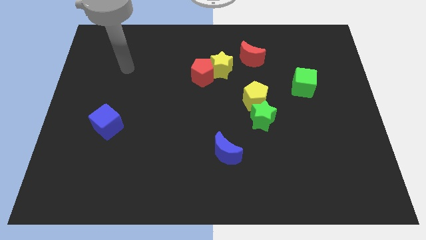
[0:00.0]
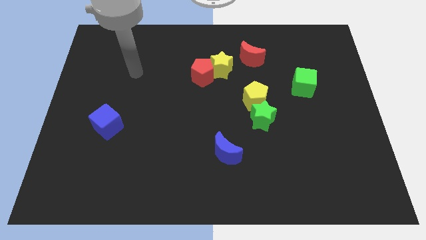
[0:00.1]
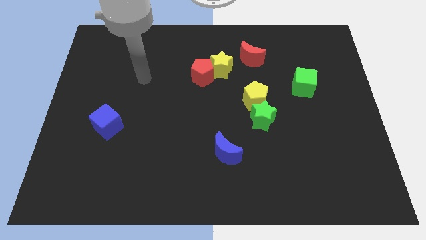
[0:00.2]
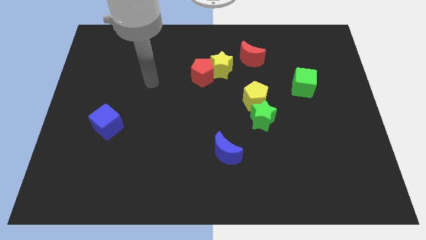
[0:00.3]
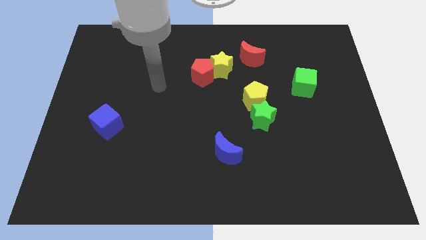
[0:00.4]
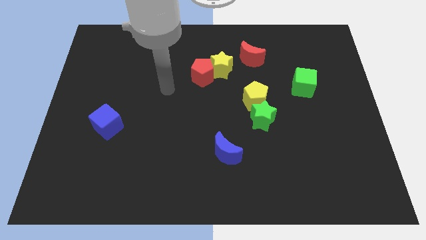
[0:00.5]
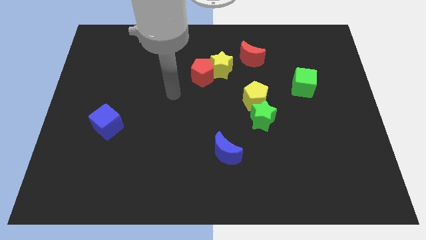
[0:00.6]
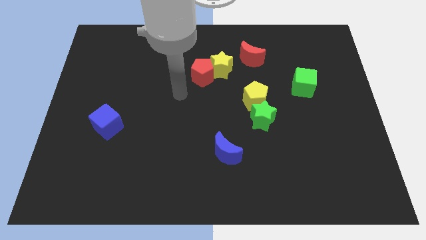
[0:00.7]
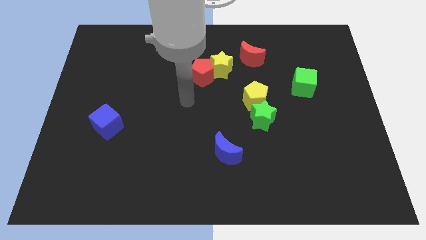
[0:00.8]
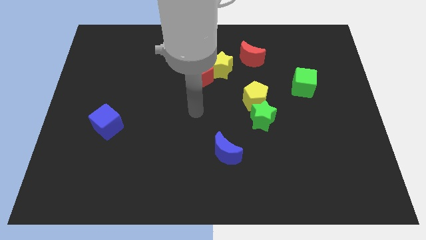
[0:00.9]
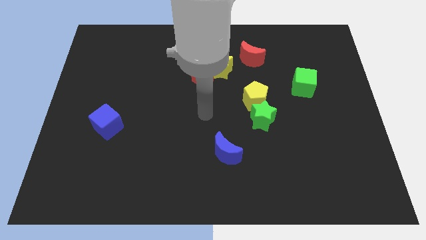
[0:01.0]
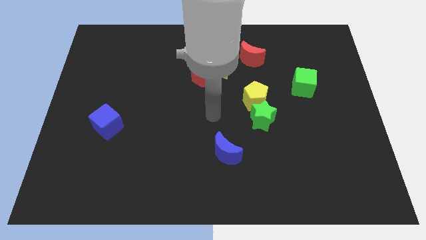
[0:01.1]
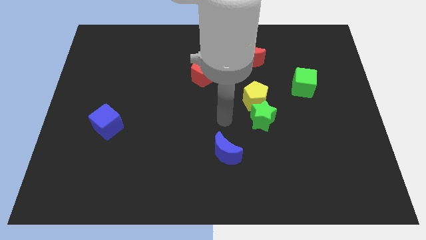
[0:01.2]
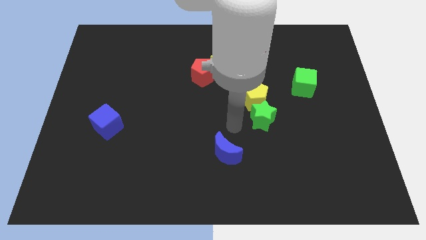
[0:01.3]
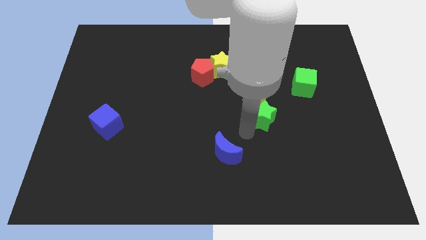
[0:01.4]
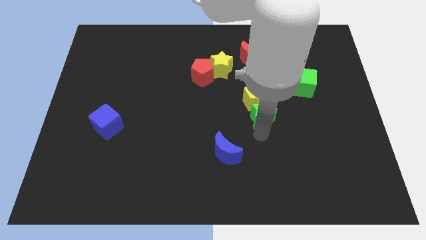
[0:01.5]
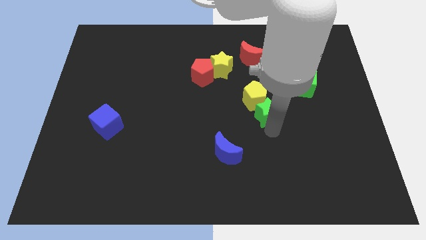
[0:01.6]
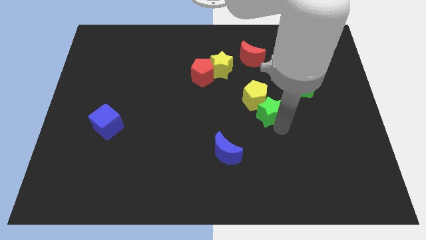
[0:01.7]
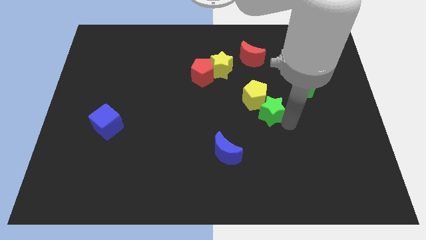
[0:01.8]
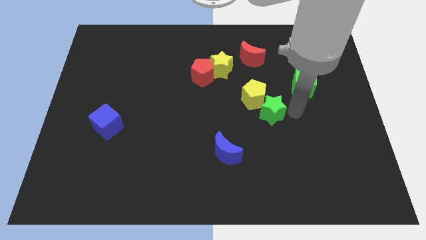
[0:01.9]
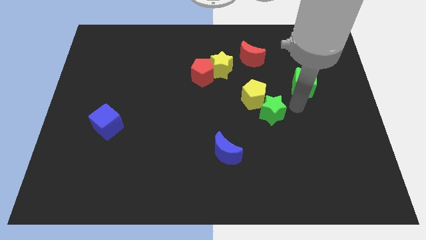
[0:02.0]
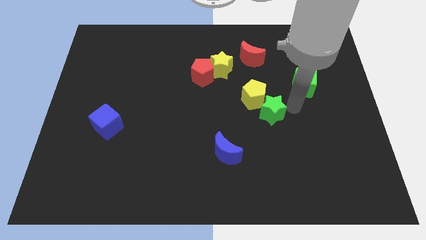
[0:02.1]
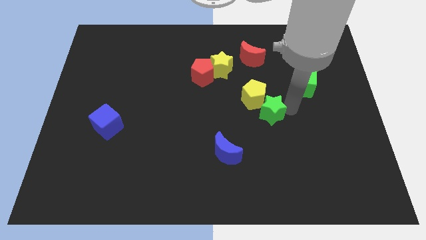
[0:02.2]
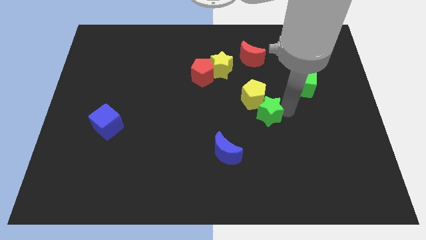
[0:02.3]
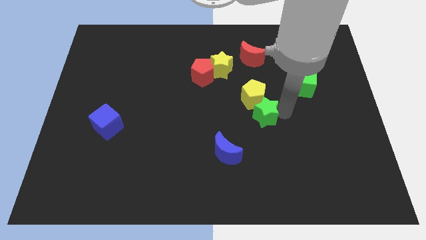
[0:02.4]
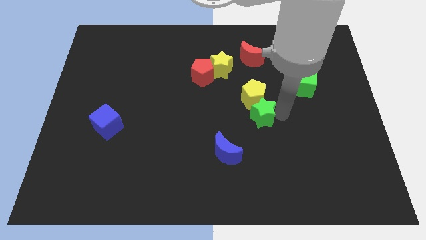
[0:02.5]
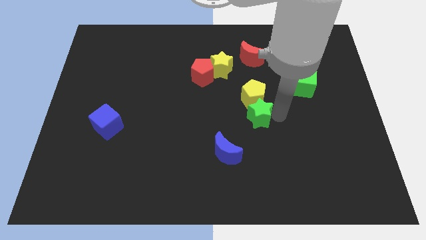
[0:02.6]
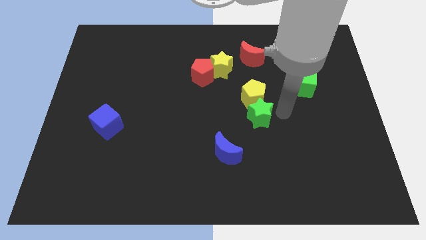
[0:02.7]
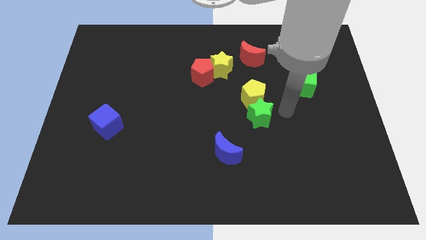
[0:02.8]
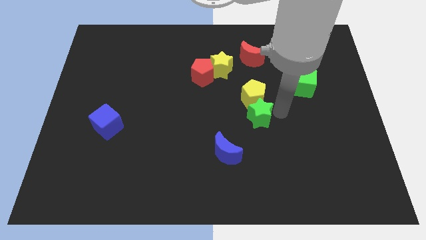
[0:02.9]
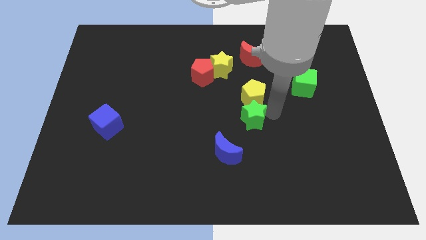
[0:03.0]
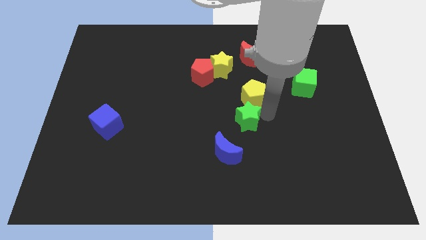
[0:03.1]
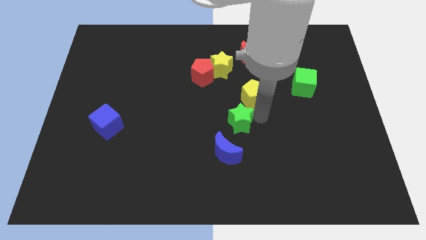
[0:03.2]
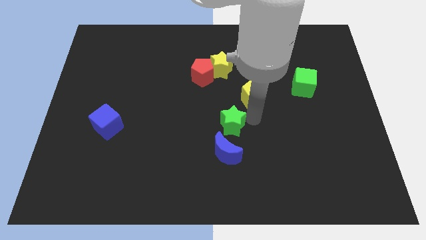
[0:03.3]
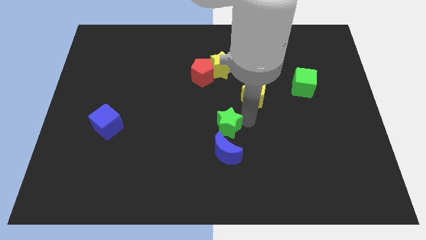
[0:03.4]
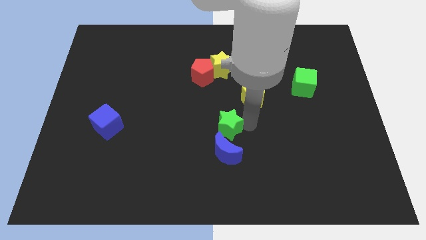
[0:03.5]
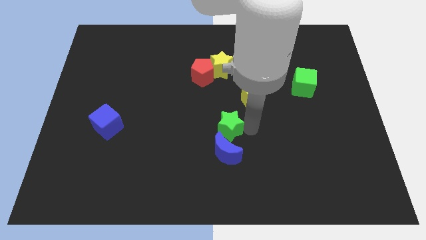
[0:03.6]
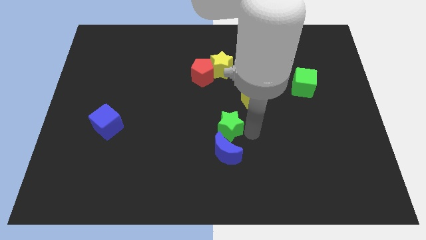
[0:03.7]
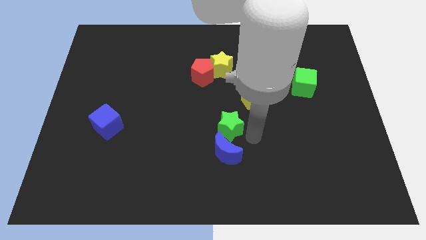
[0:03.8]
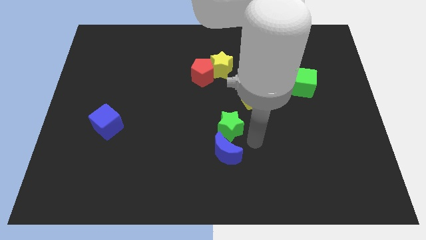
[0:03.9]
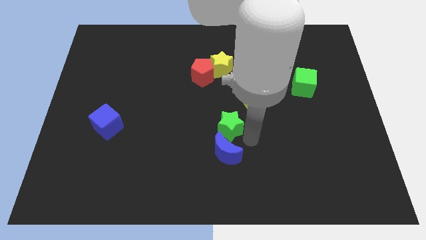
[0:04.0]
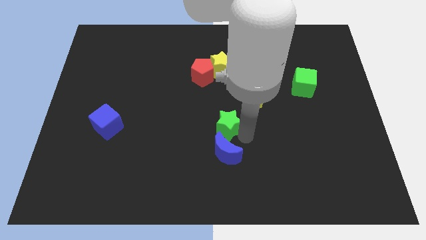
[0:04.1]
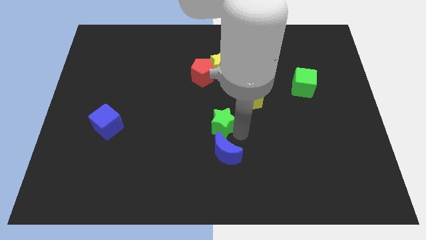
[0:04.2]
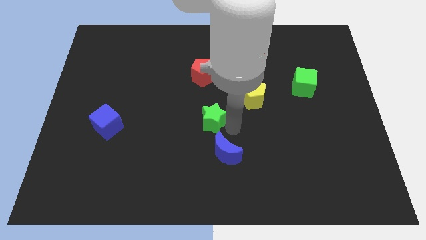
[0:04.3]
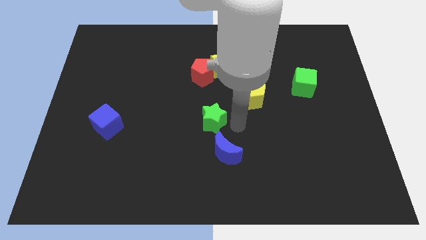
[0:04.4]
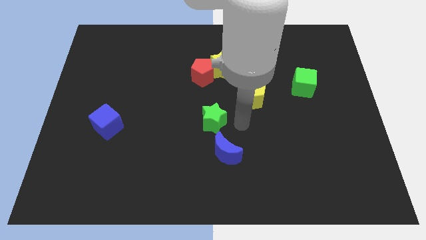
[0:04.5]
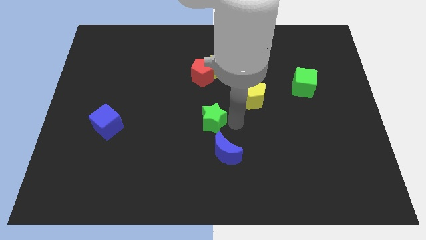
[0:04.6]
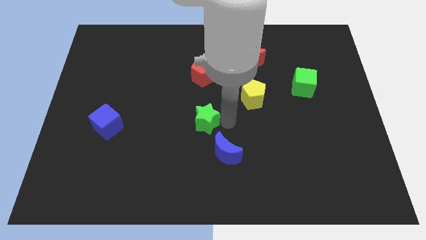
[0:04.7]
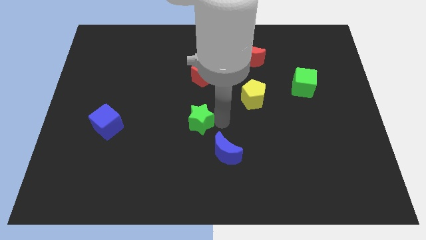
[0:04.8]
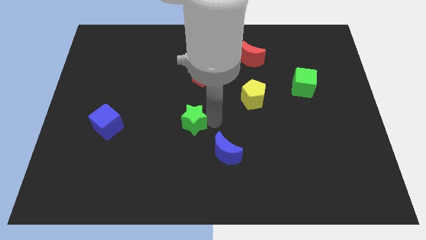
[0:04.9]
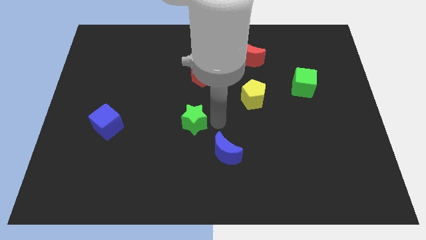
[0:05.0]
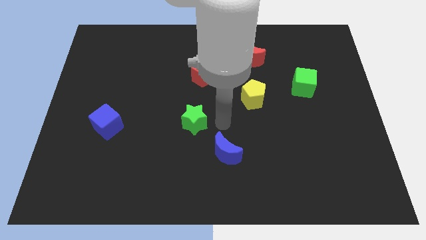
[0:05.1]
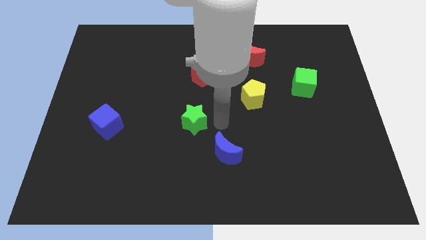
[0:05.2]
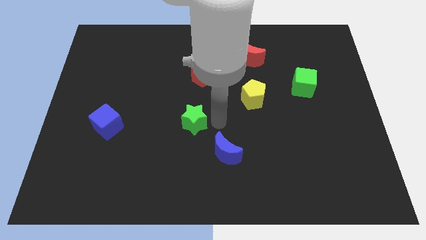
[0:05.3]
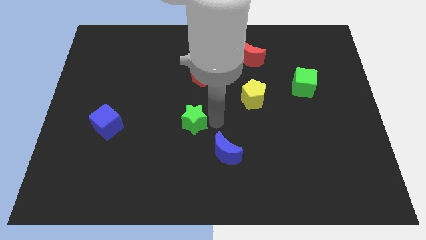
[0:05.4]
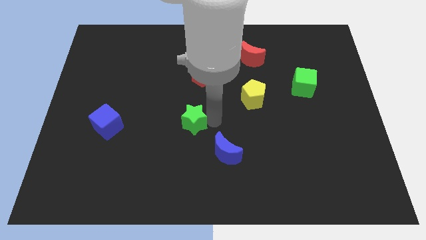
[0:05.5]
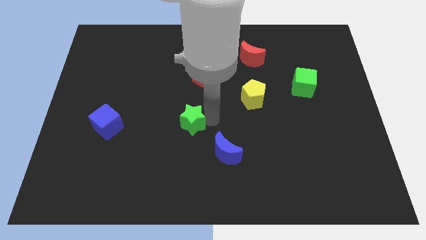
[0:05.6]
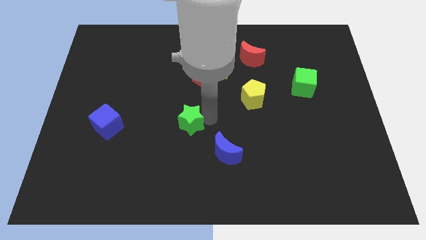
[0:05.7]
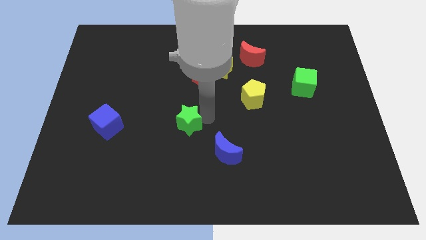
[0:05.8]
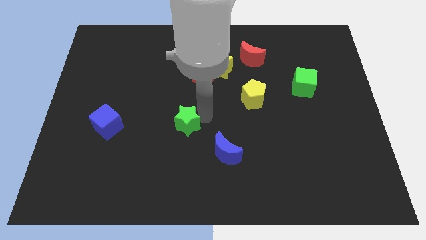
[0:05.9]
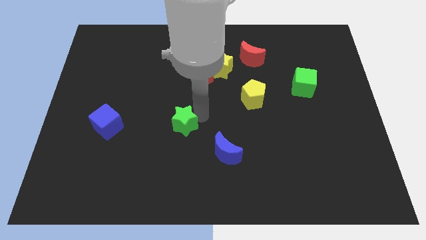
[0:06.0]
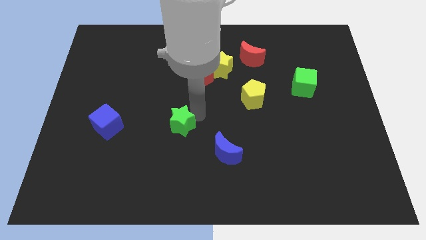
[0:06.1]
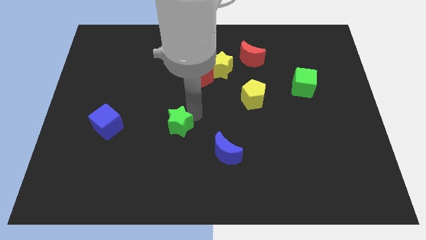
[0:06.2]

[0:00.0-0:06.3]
push the green star to the right of the blue cube

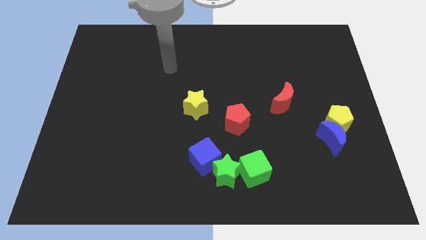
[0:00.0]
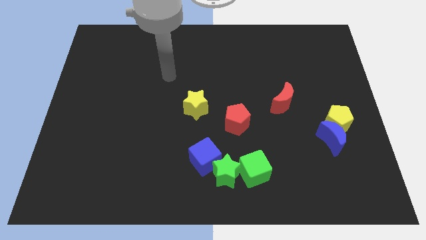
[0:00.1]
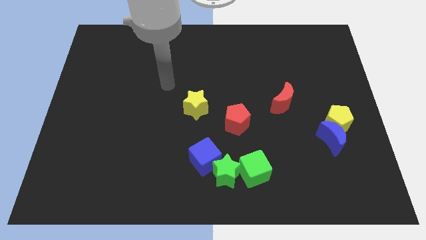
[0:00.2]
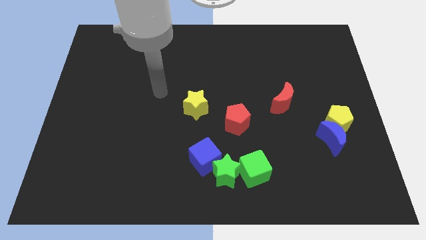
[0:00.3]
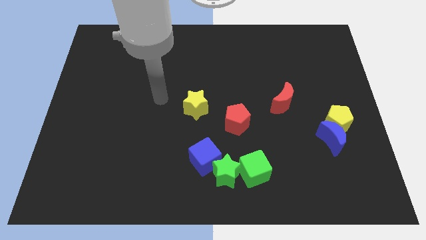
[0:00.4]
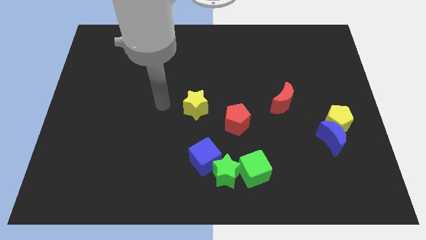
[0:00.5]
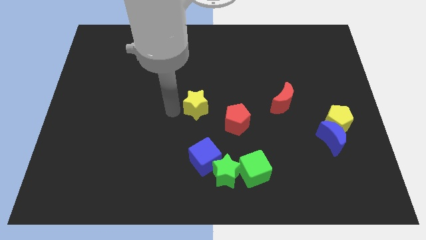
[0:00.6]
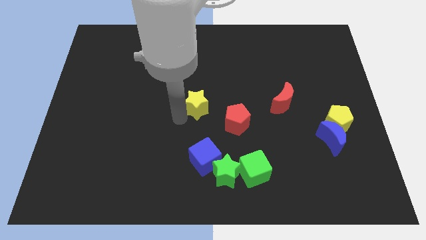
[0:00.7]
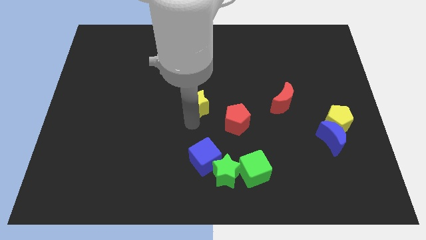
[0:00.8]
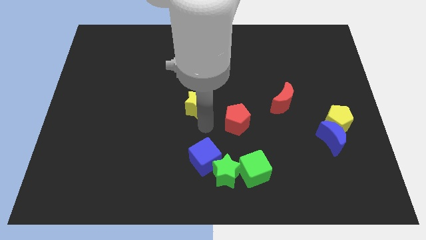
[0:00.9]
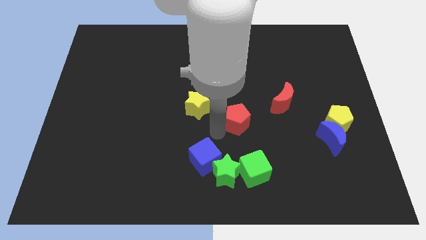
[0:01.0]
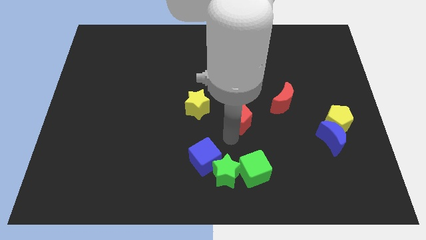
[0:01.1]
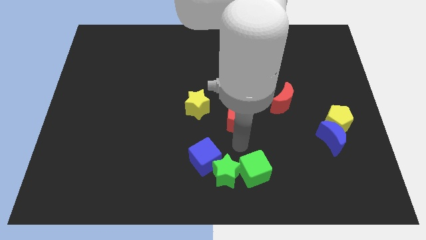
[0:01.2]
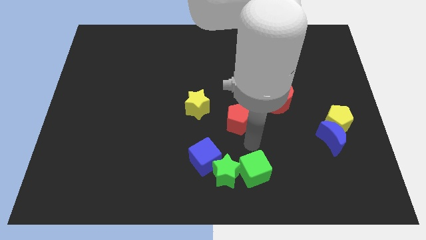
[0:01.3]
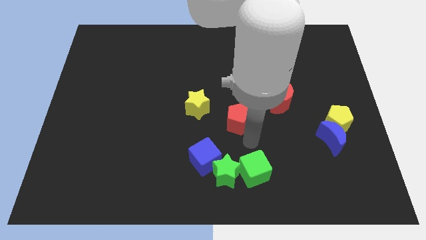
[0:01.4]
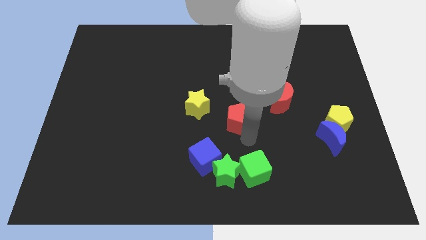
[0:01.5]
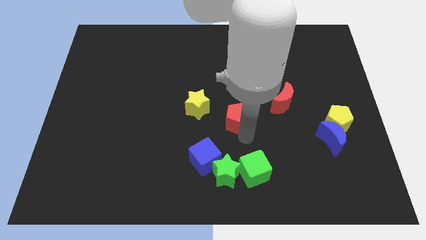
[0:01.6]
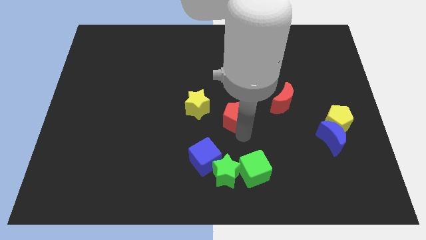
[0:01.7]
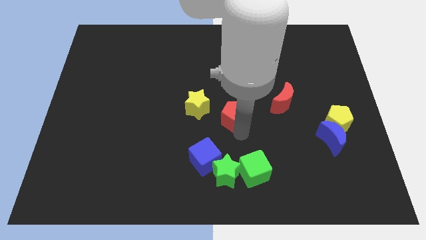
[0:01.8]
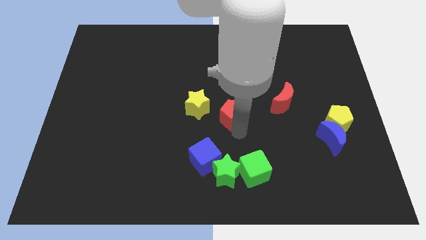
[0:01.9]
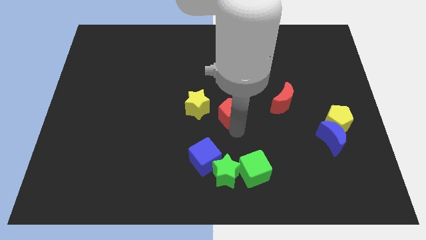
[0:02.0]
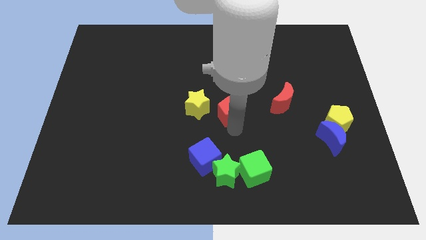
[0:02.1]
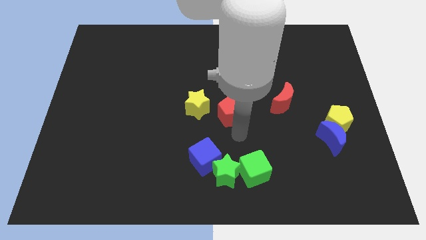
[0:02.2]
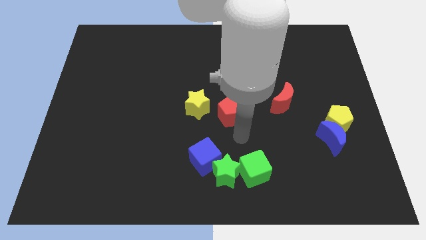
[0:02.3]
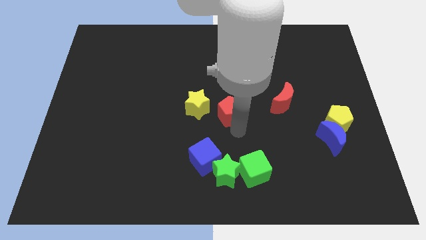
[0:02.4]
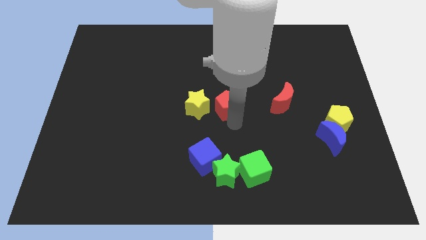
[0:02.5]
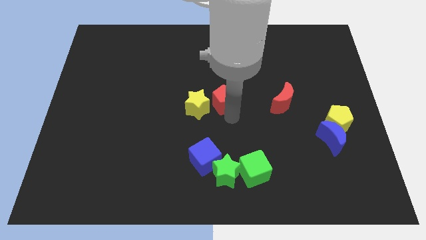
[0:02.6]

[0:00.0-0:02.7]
push the red pentagon to the top right side of the yellow star
